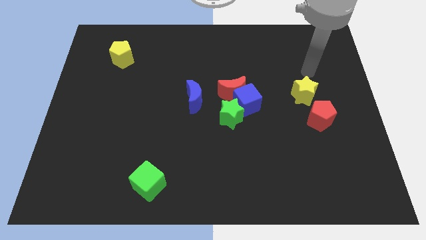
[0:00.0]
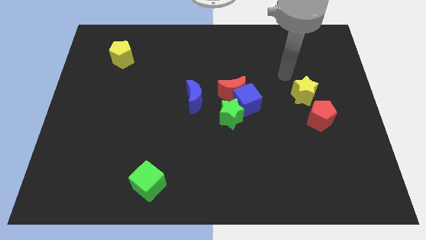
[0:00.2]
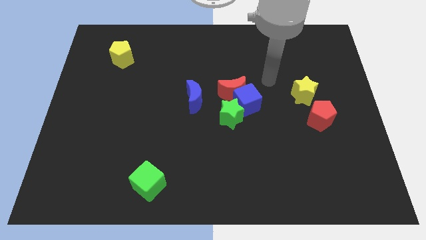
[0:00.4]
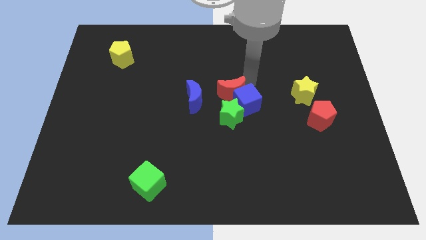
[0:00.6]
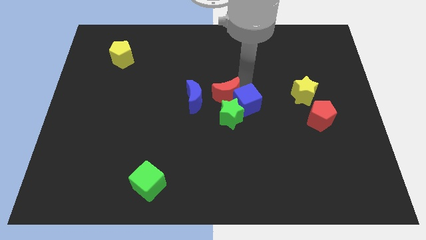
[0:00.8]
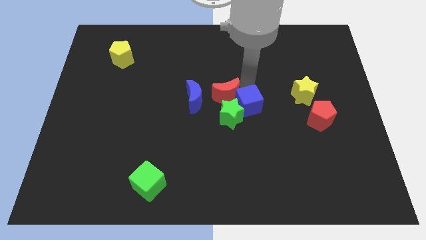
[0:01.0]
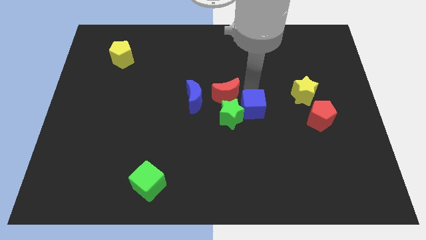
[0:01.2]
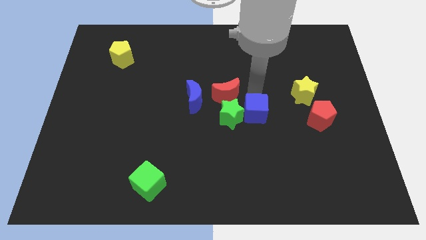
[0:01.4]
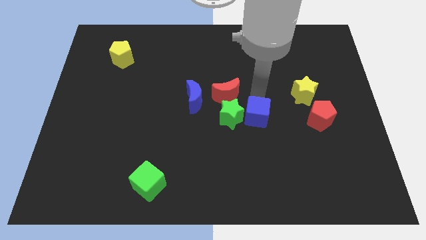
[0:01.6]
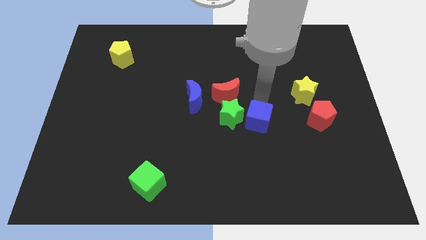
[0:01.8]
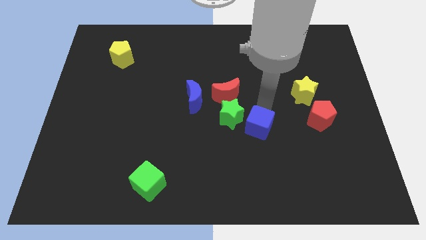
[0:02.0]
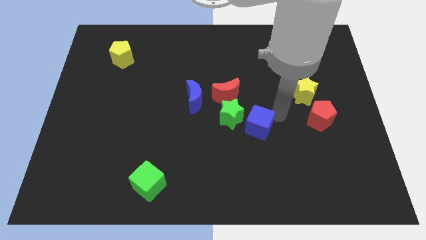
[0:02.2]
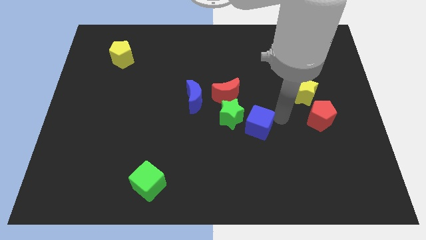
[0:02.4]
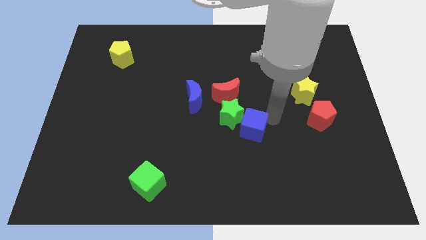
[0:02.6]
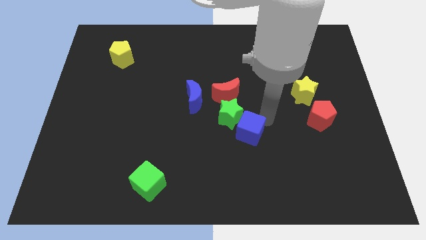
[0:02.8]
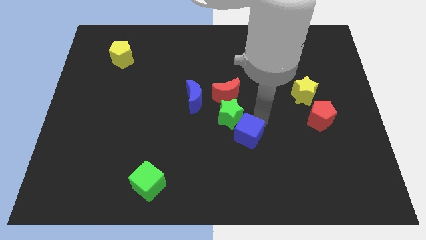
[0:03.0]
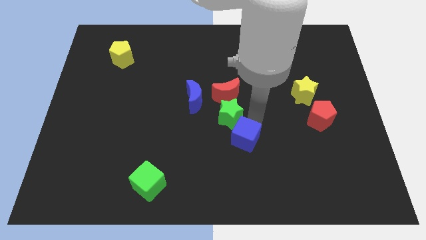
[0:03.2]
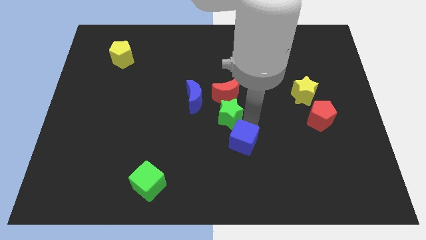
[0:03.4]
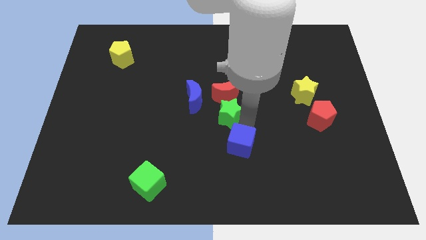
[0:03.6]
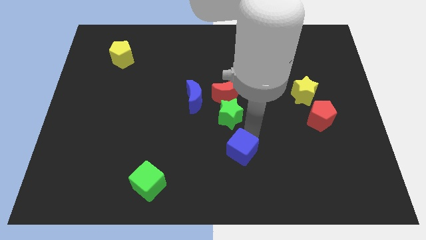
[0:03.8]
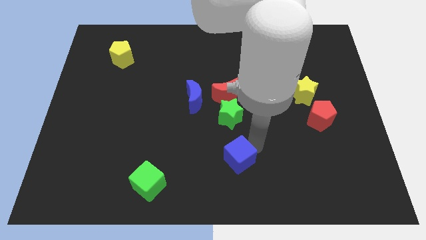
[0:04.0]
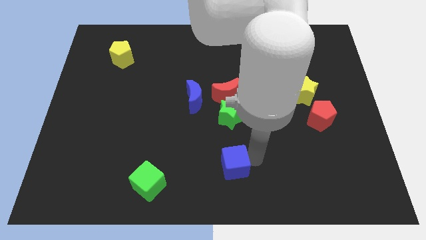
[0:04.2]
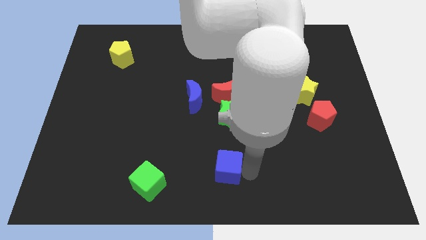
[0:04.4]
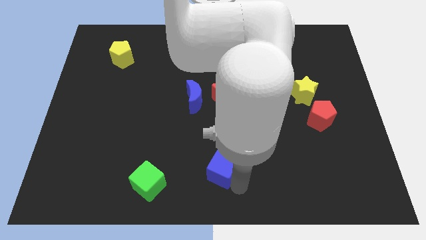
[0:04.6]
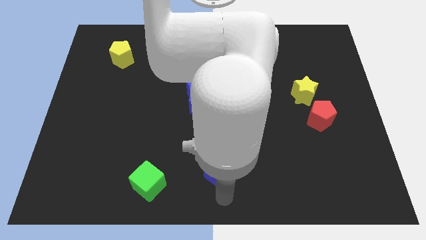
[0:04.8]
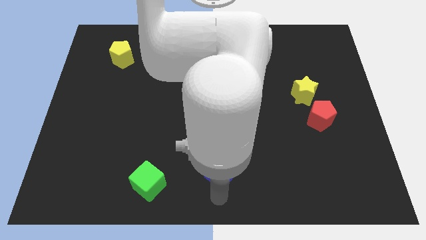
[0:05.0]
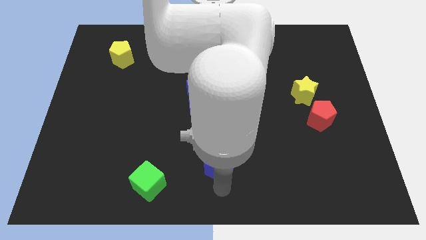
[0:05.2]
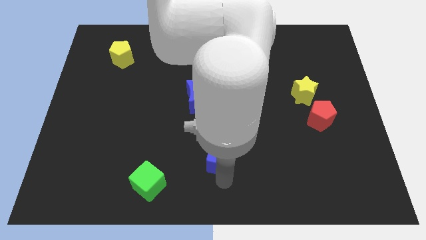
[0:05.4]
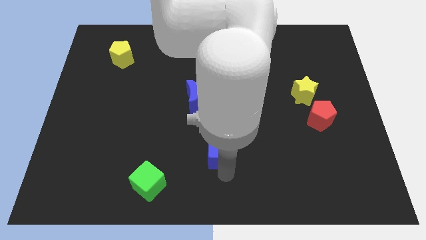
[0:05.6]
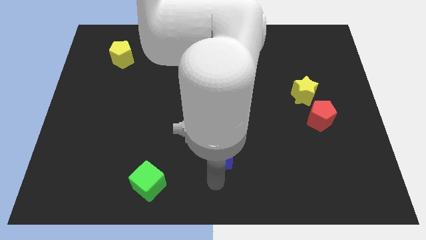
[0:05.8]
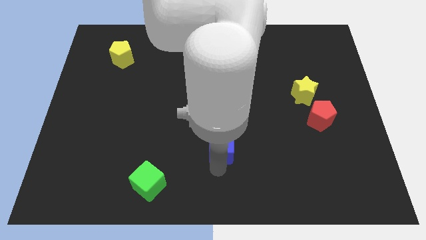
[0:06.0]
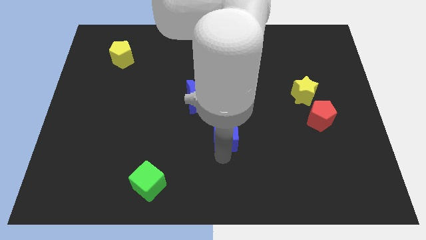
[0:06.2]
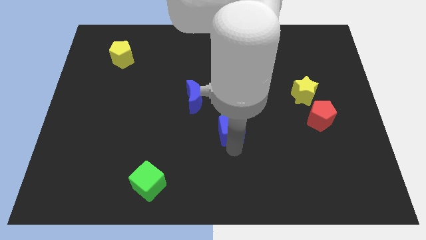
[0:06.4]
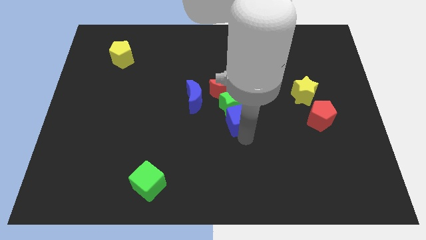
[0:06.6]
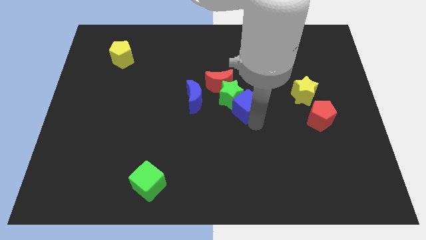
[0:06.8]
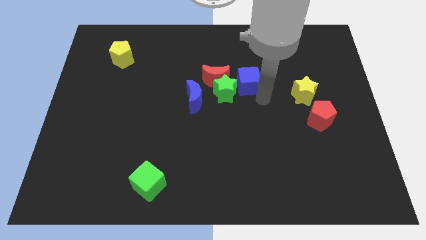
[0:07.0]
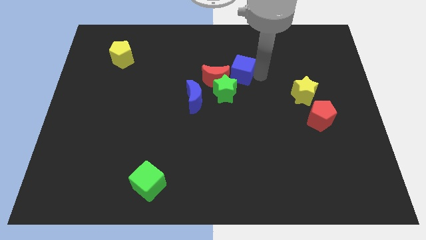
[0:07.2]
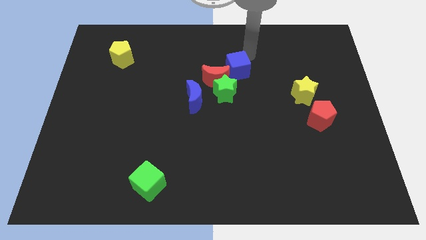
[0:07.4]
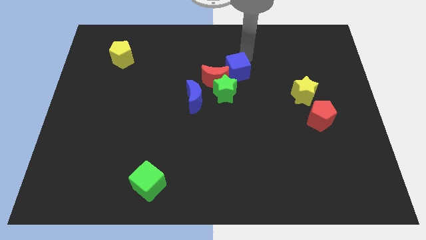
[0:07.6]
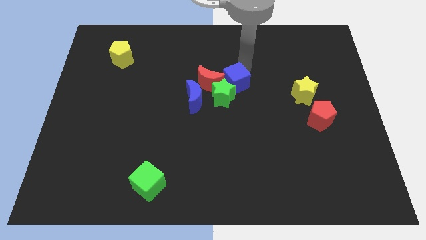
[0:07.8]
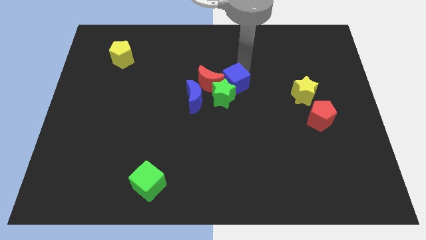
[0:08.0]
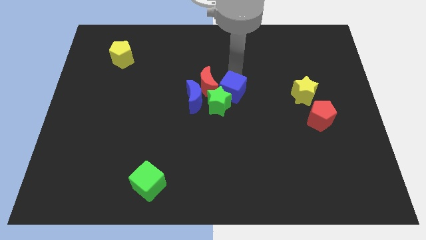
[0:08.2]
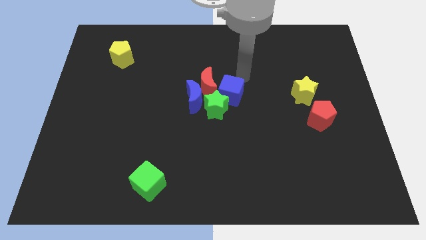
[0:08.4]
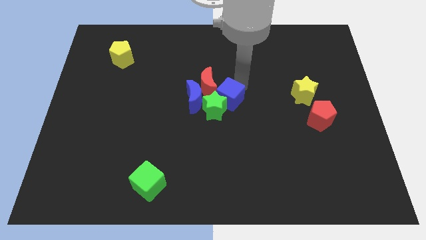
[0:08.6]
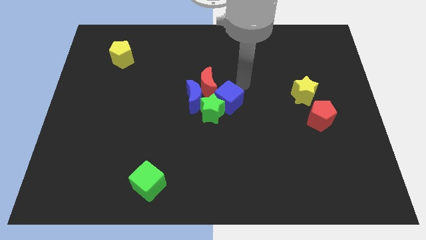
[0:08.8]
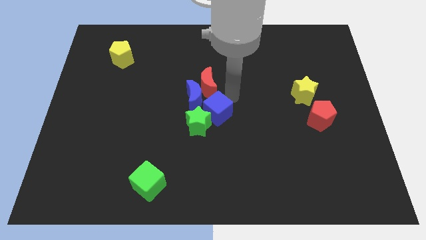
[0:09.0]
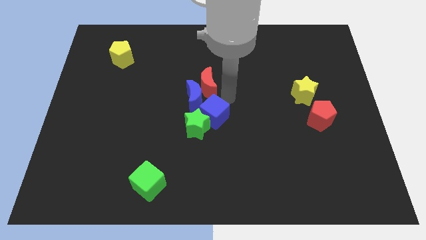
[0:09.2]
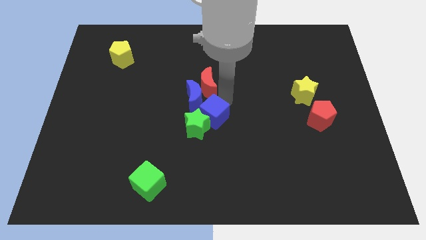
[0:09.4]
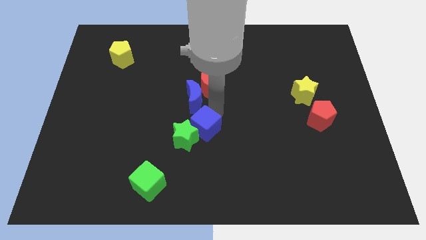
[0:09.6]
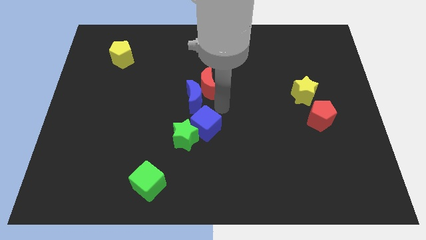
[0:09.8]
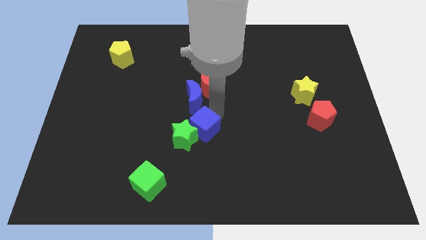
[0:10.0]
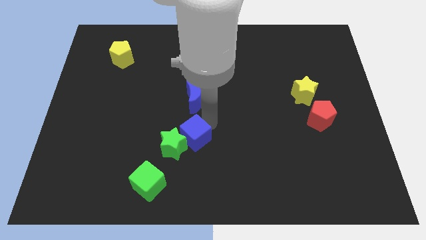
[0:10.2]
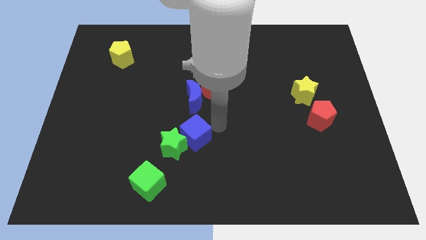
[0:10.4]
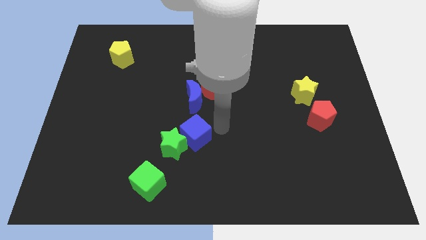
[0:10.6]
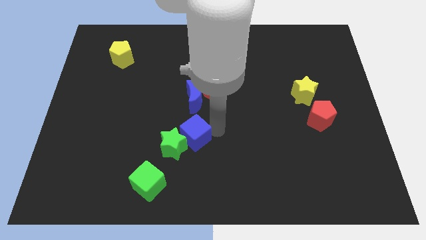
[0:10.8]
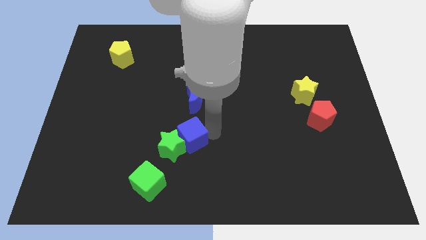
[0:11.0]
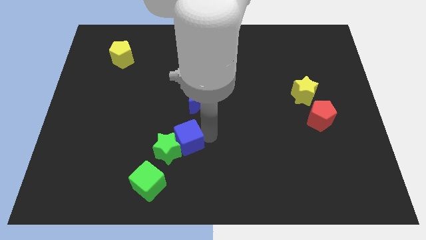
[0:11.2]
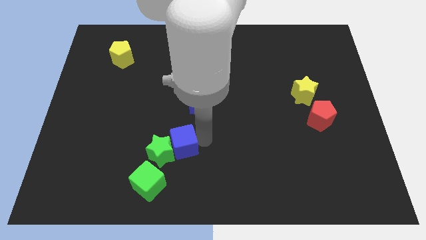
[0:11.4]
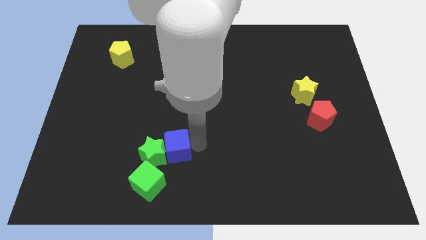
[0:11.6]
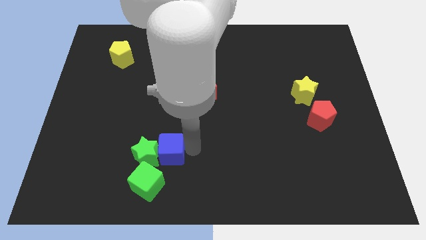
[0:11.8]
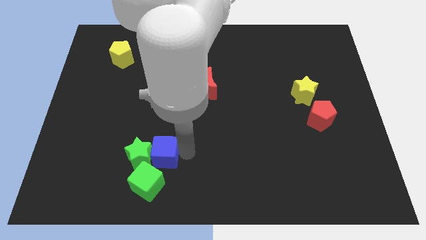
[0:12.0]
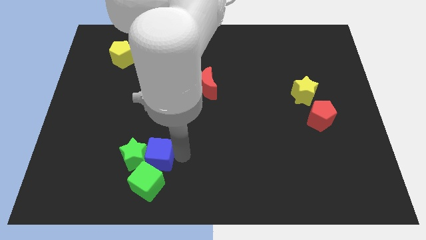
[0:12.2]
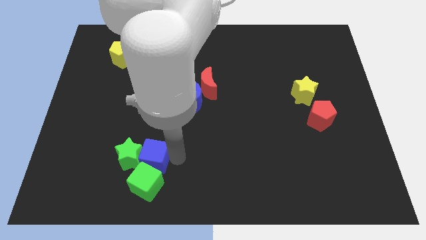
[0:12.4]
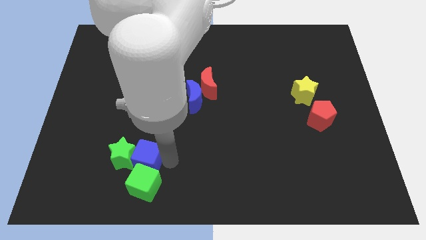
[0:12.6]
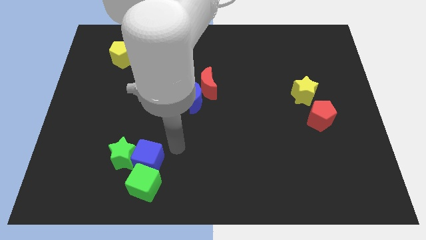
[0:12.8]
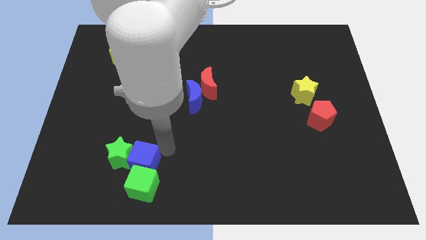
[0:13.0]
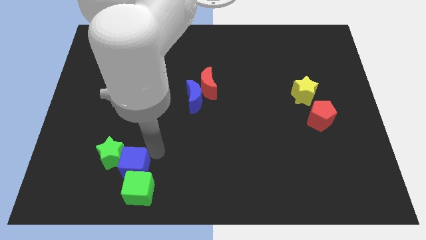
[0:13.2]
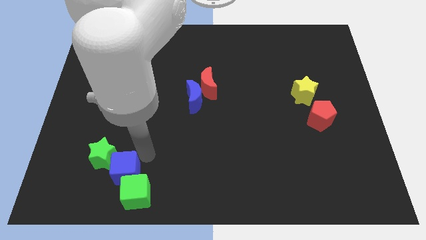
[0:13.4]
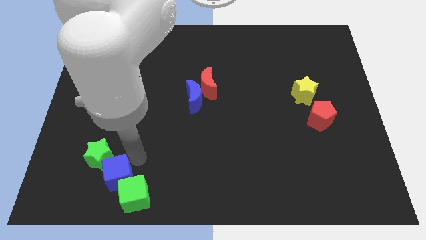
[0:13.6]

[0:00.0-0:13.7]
move the blue cube to the left of the green cube
